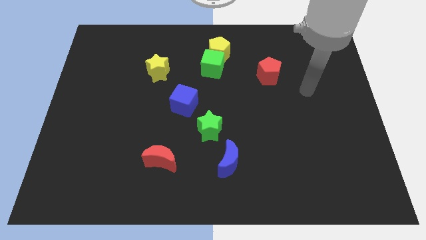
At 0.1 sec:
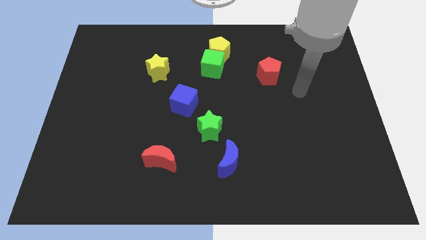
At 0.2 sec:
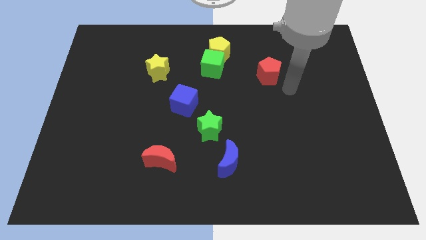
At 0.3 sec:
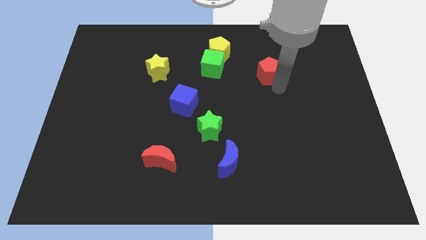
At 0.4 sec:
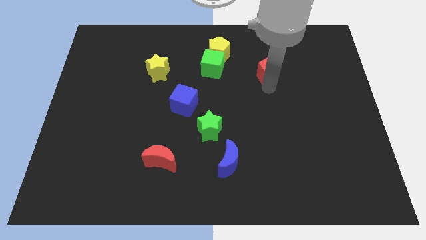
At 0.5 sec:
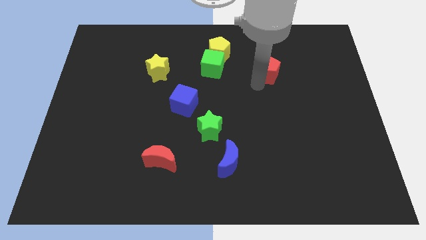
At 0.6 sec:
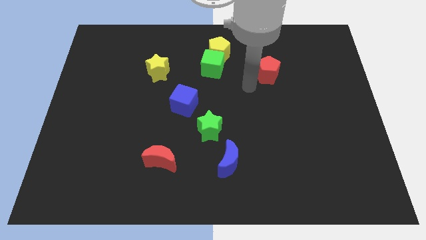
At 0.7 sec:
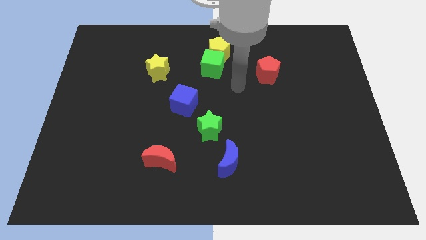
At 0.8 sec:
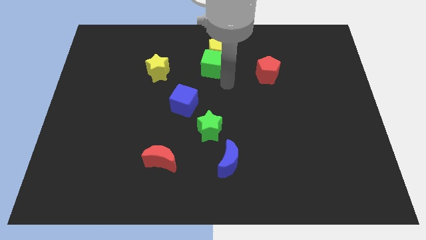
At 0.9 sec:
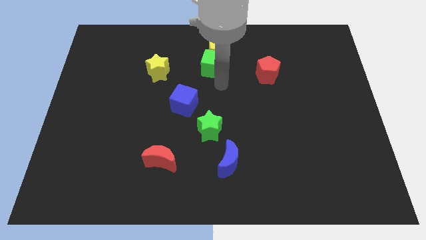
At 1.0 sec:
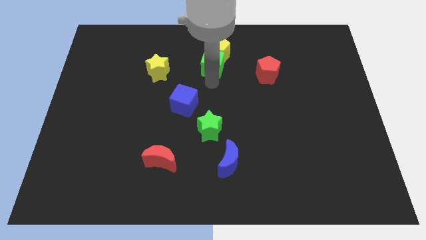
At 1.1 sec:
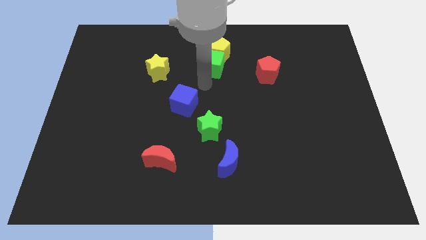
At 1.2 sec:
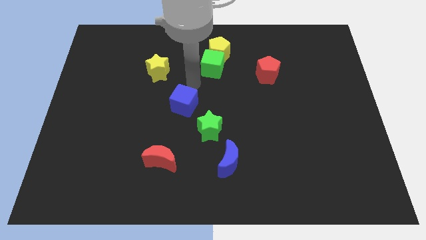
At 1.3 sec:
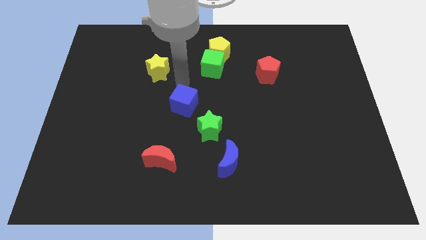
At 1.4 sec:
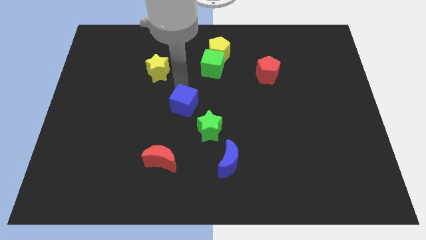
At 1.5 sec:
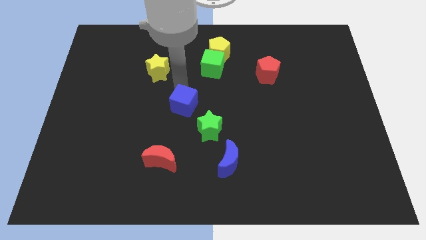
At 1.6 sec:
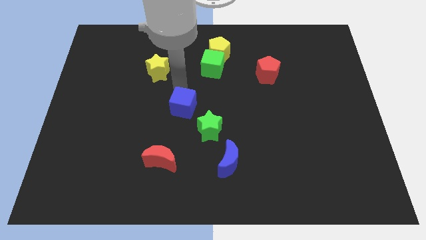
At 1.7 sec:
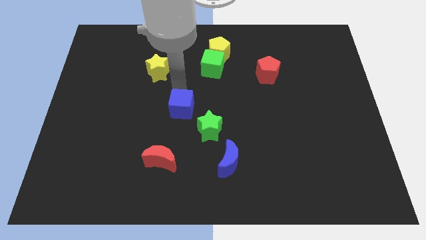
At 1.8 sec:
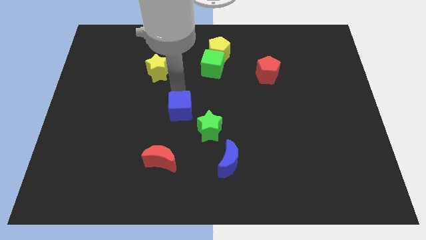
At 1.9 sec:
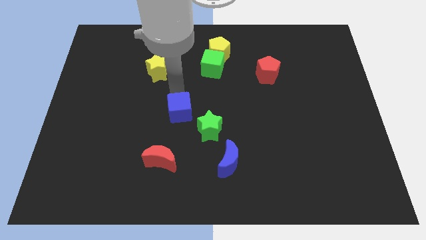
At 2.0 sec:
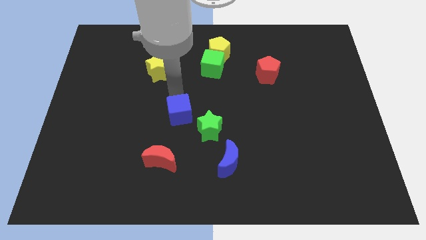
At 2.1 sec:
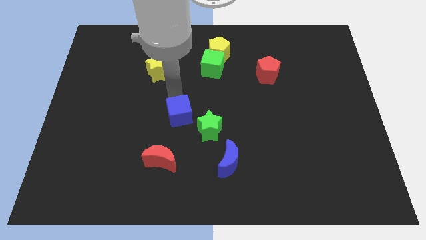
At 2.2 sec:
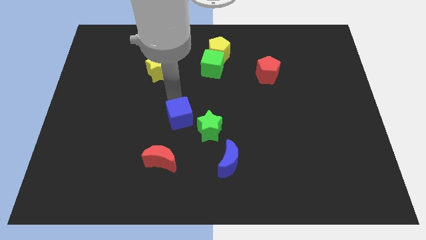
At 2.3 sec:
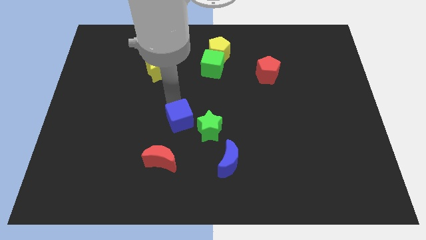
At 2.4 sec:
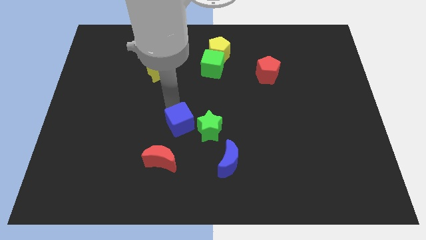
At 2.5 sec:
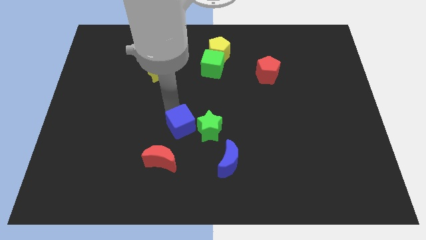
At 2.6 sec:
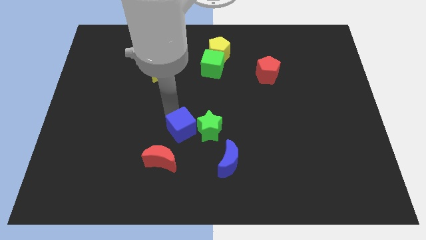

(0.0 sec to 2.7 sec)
slightly move the blue cube down

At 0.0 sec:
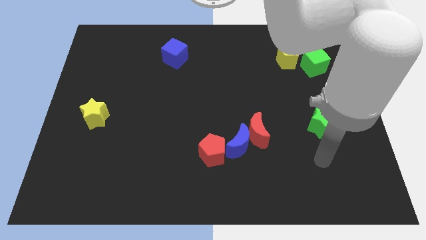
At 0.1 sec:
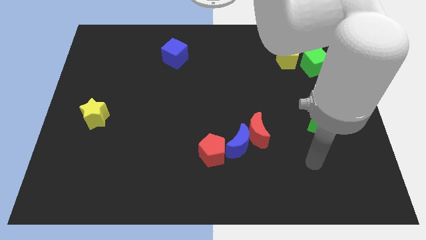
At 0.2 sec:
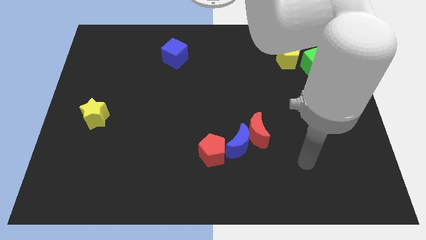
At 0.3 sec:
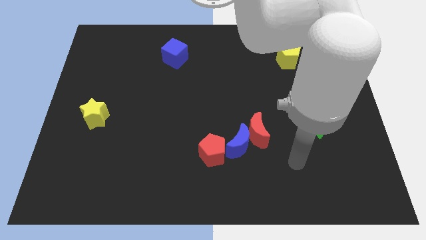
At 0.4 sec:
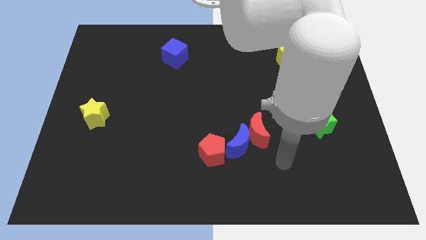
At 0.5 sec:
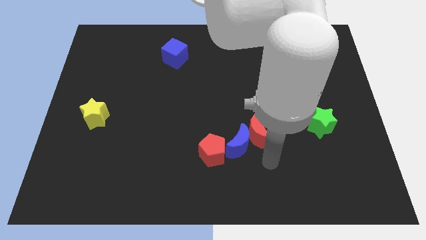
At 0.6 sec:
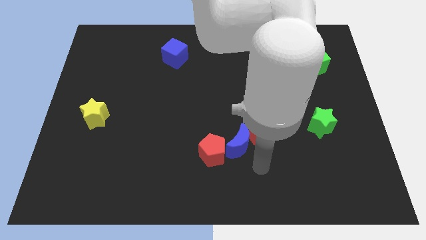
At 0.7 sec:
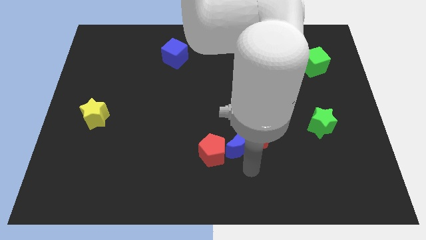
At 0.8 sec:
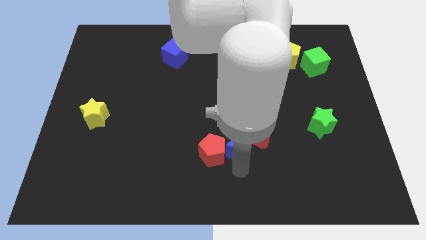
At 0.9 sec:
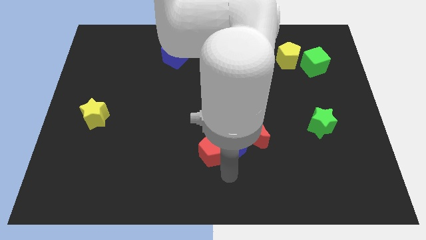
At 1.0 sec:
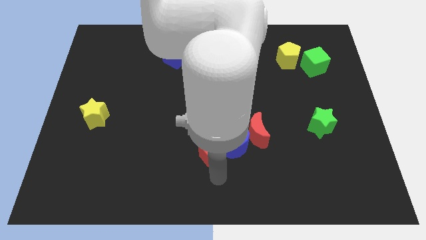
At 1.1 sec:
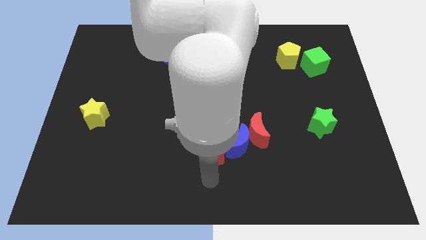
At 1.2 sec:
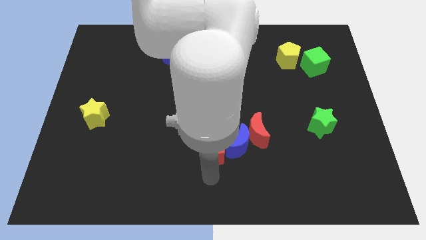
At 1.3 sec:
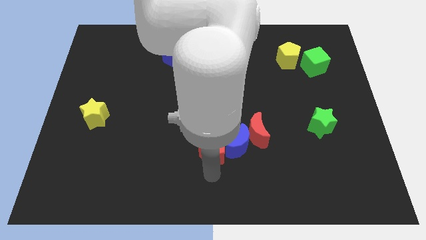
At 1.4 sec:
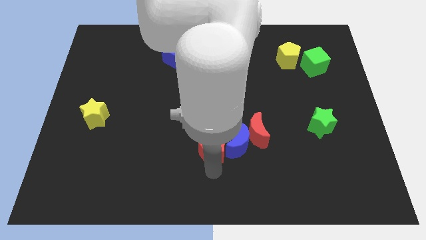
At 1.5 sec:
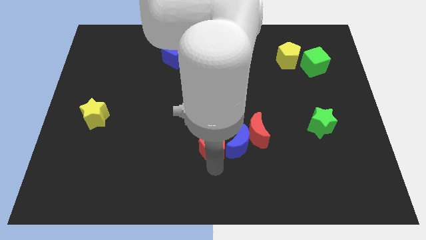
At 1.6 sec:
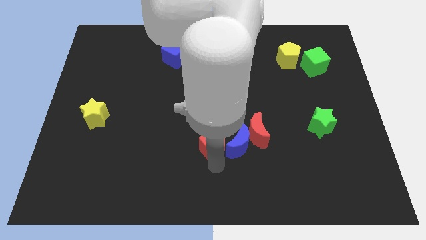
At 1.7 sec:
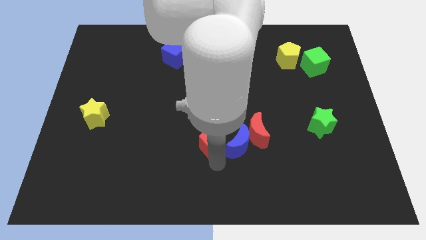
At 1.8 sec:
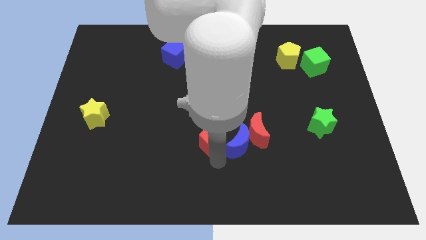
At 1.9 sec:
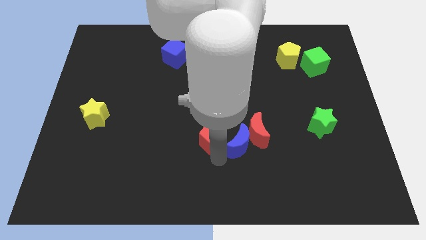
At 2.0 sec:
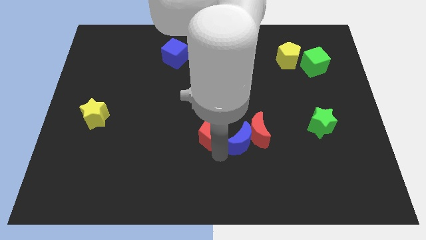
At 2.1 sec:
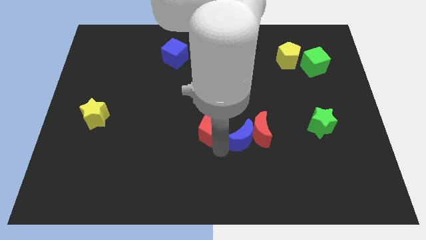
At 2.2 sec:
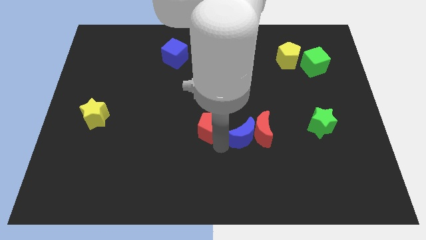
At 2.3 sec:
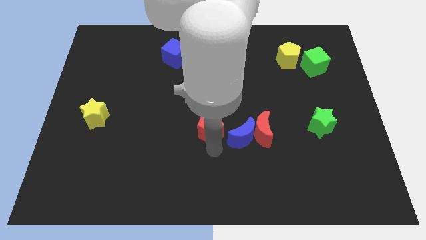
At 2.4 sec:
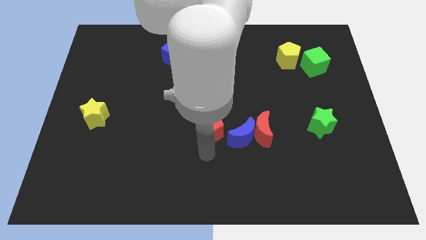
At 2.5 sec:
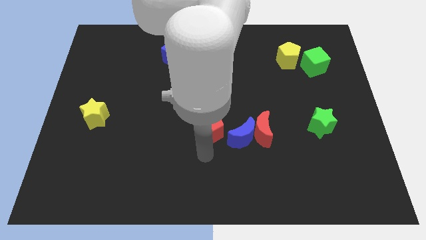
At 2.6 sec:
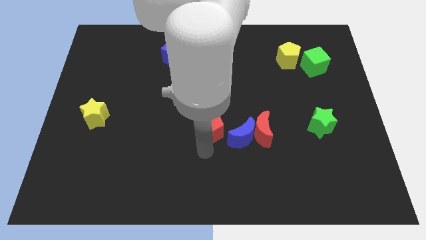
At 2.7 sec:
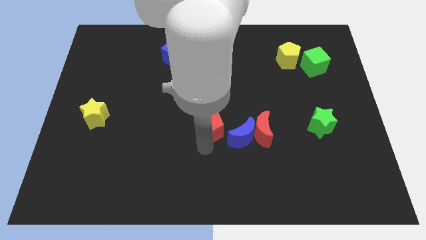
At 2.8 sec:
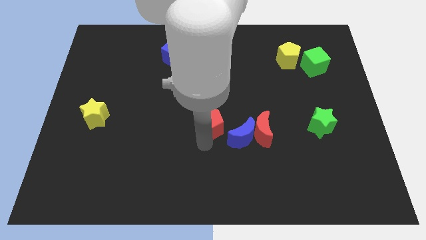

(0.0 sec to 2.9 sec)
slide the red pentagon upwards slightly

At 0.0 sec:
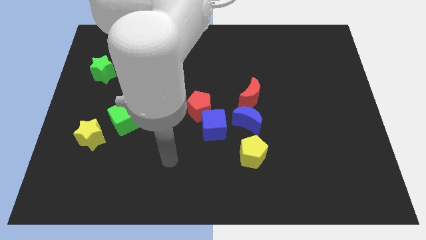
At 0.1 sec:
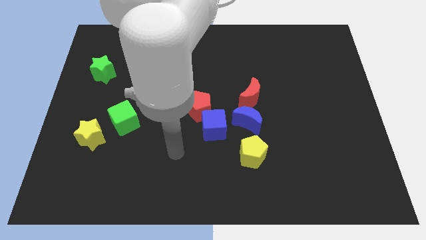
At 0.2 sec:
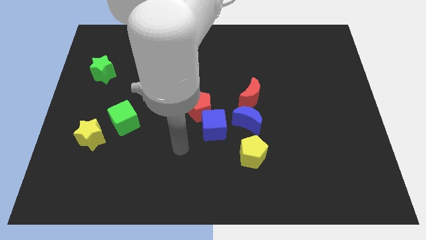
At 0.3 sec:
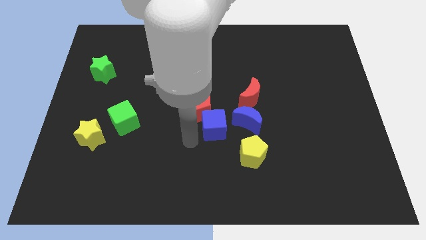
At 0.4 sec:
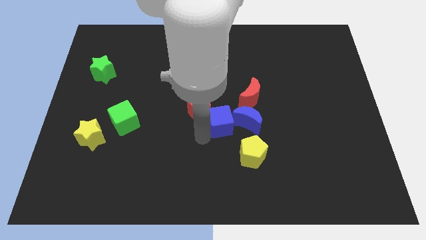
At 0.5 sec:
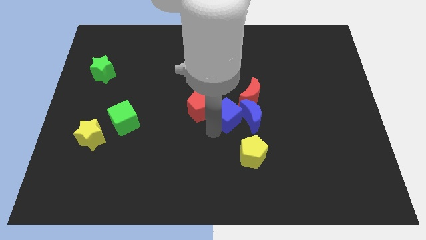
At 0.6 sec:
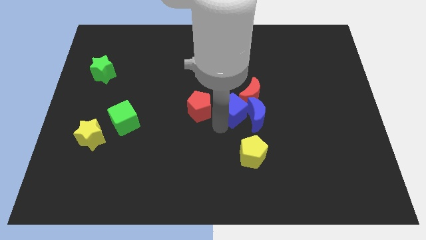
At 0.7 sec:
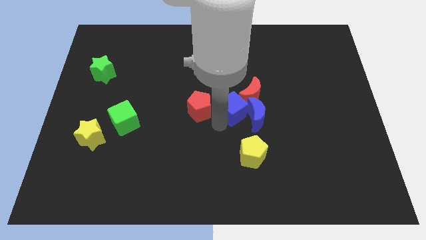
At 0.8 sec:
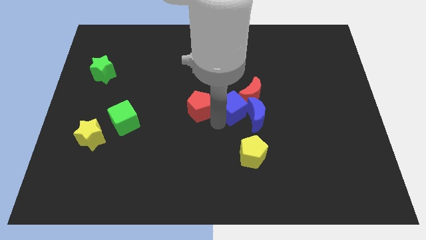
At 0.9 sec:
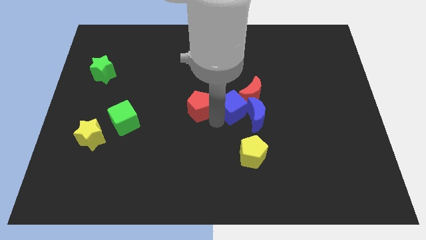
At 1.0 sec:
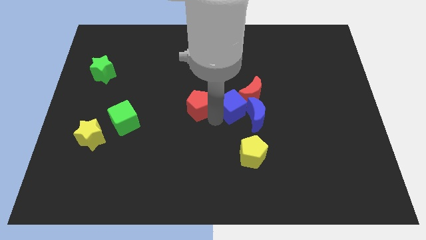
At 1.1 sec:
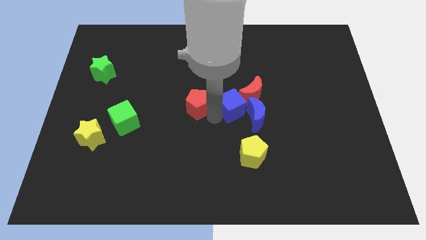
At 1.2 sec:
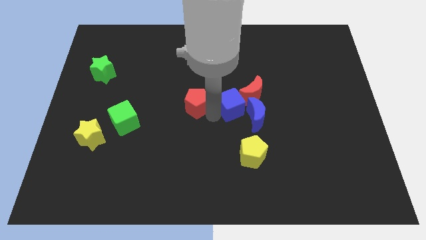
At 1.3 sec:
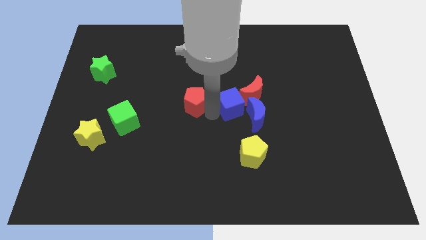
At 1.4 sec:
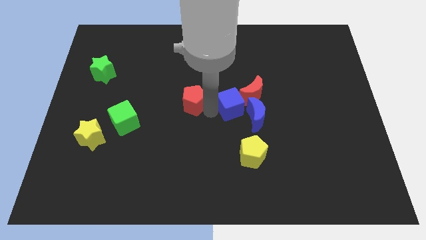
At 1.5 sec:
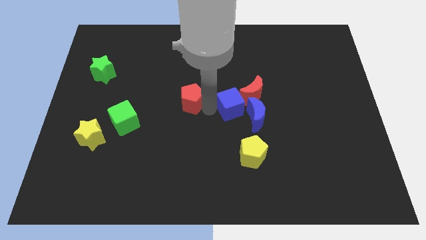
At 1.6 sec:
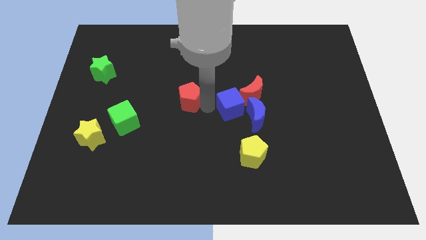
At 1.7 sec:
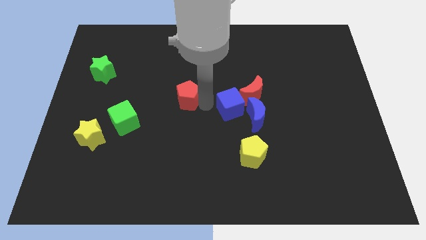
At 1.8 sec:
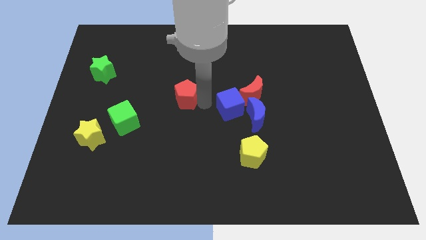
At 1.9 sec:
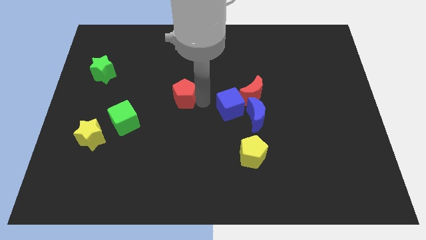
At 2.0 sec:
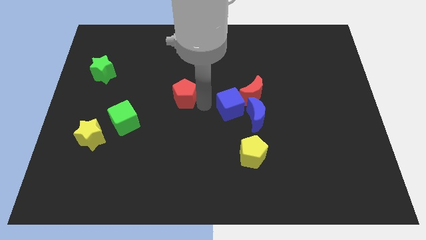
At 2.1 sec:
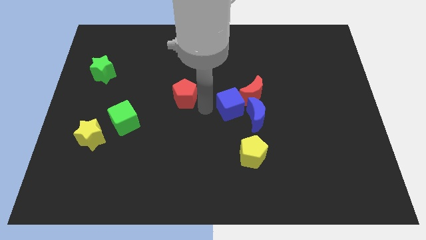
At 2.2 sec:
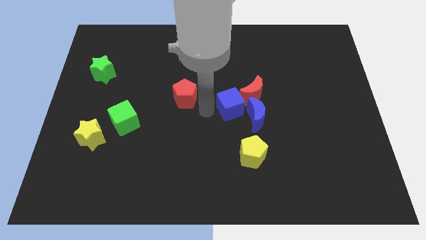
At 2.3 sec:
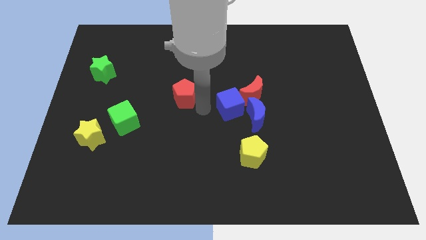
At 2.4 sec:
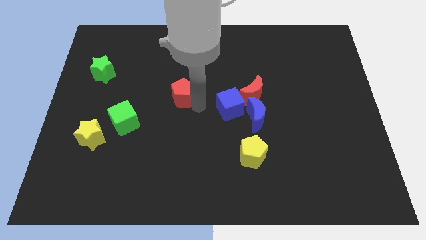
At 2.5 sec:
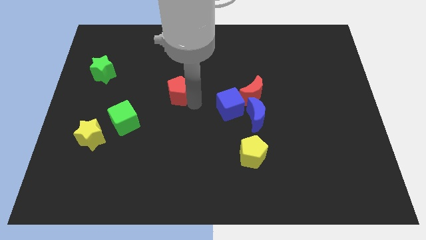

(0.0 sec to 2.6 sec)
move the red pentagon a little diagonally up and to the left
